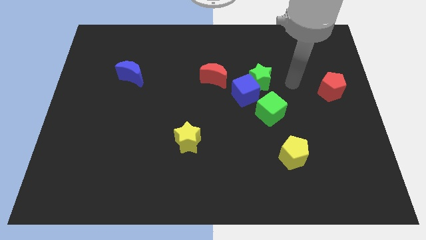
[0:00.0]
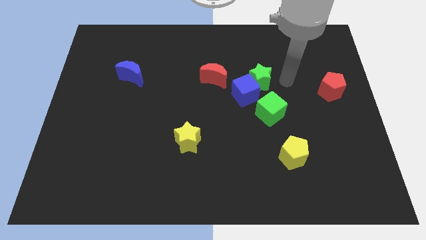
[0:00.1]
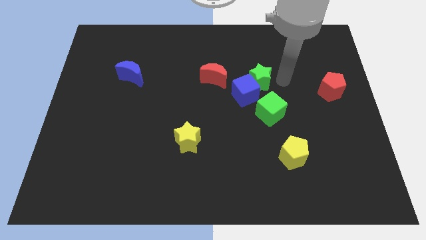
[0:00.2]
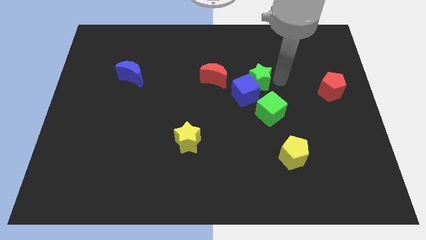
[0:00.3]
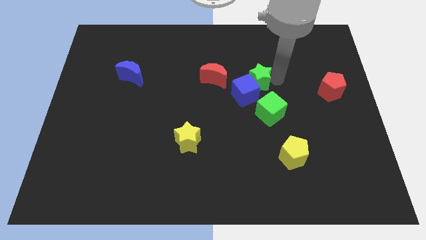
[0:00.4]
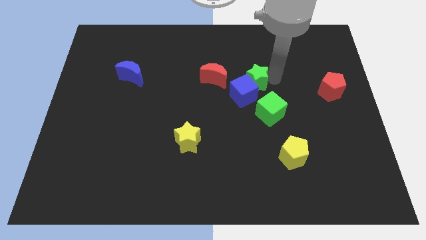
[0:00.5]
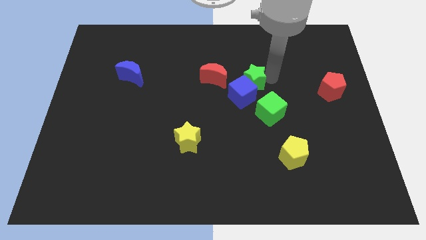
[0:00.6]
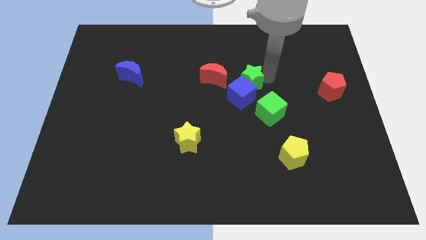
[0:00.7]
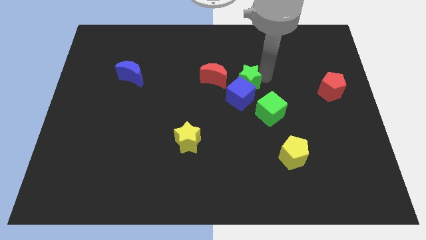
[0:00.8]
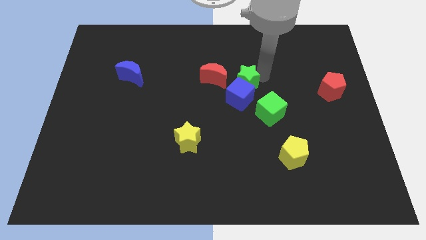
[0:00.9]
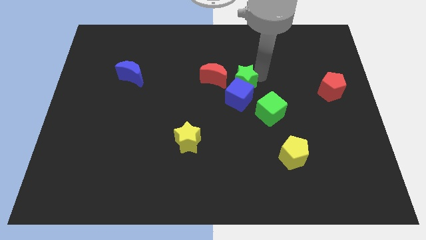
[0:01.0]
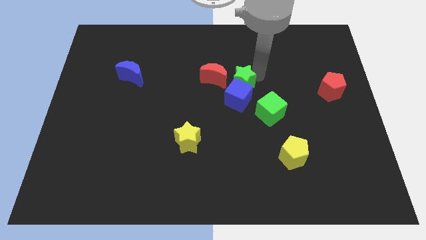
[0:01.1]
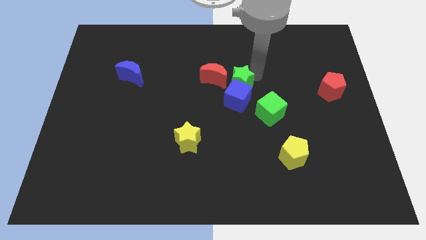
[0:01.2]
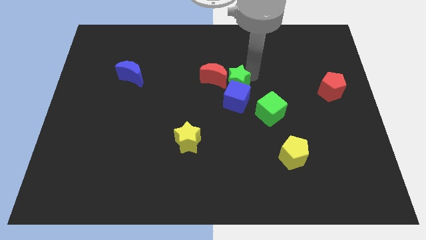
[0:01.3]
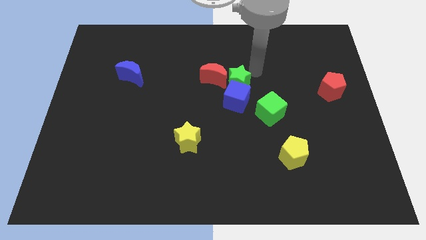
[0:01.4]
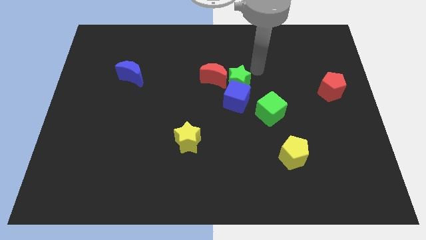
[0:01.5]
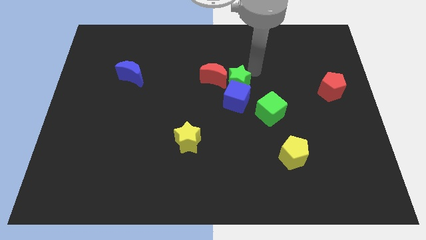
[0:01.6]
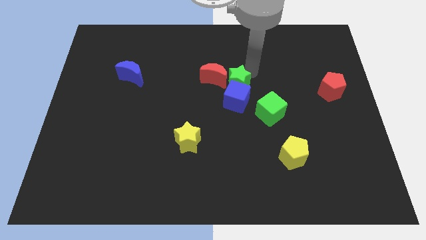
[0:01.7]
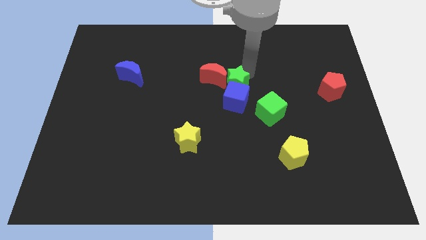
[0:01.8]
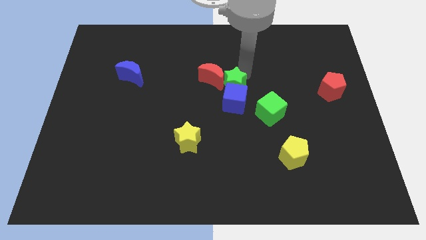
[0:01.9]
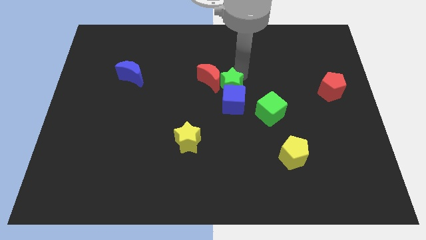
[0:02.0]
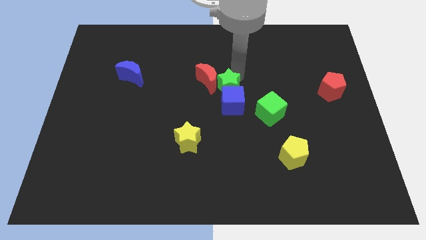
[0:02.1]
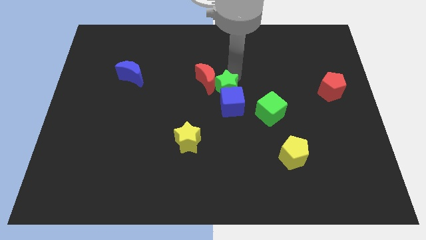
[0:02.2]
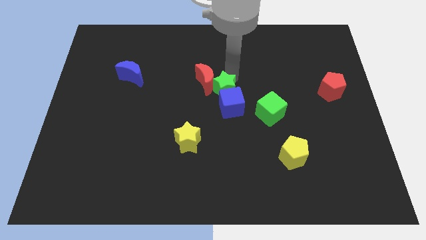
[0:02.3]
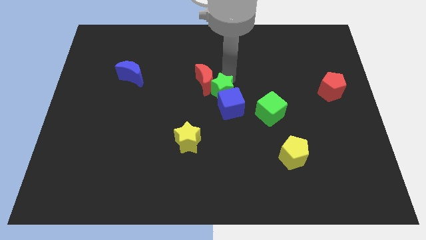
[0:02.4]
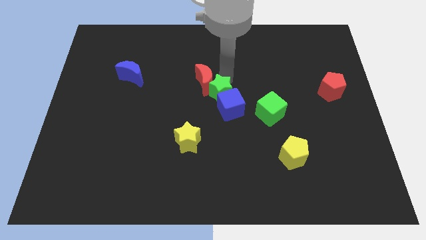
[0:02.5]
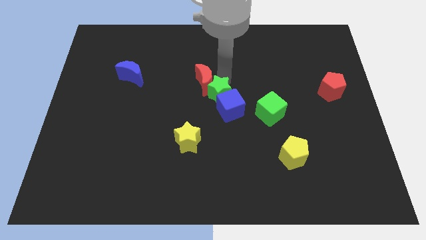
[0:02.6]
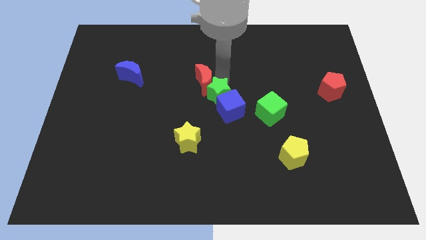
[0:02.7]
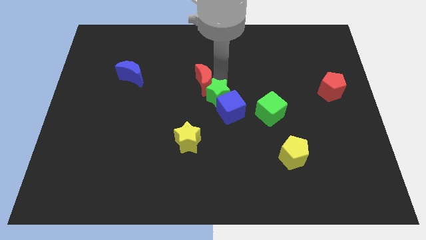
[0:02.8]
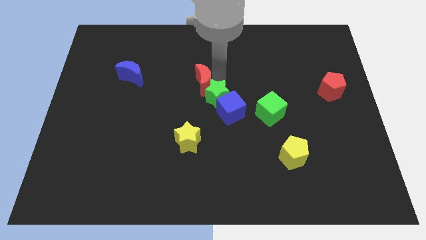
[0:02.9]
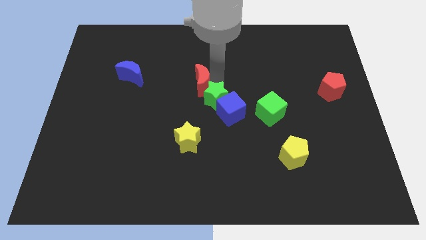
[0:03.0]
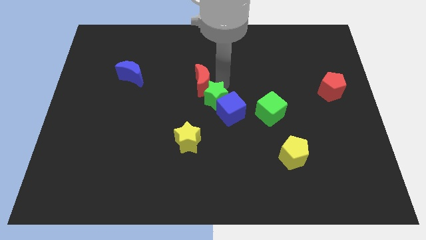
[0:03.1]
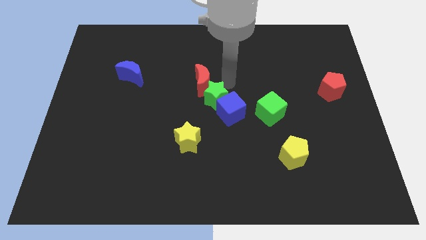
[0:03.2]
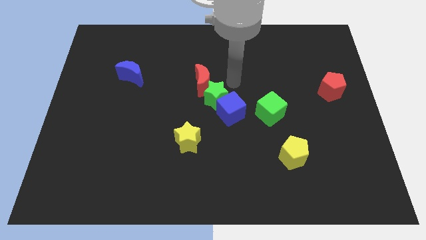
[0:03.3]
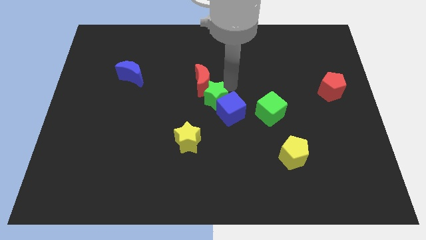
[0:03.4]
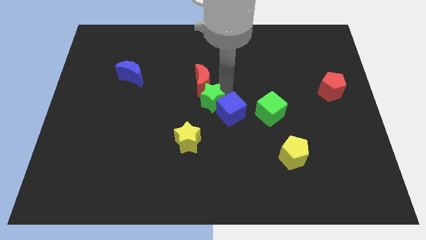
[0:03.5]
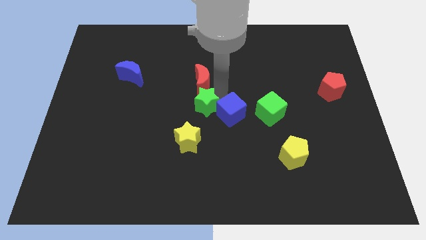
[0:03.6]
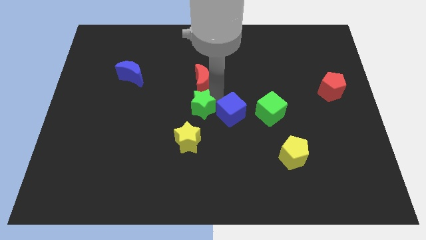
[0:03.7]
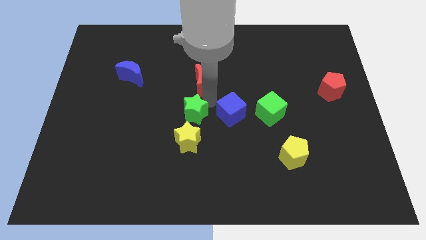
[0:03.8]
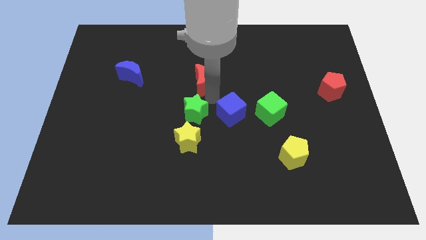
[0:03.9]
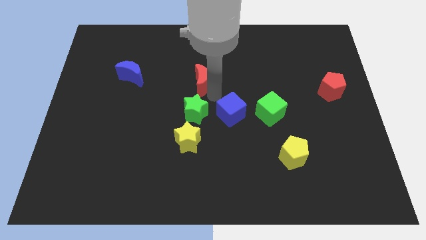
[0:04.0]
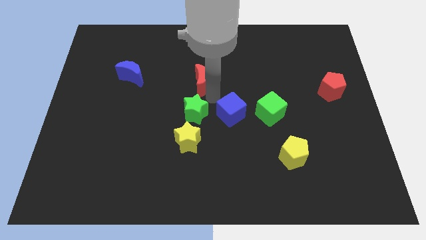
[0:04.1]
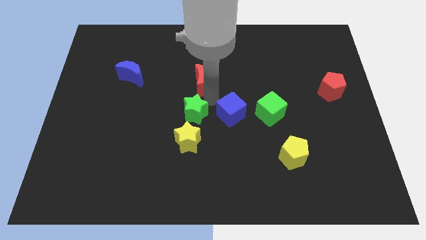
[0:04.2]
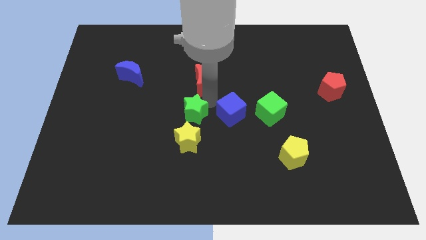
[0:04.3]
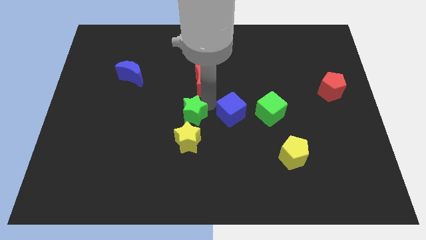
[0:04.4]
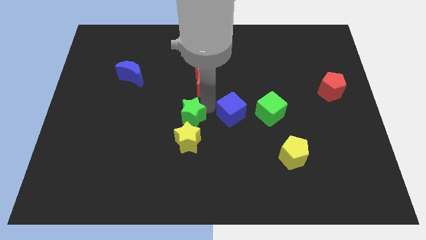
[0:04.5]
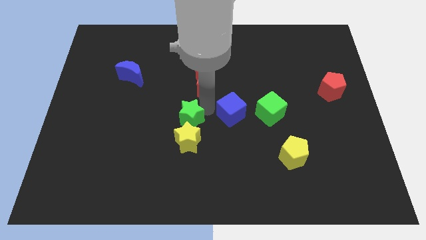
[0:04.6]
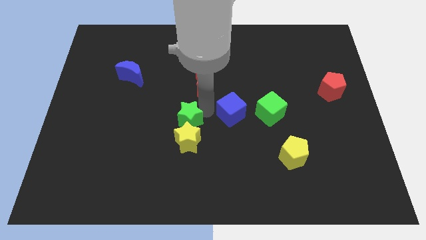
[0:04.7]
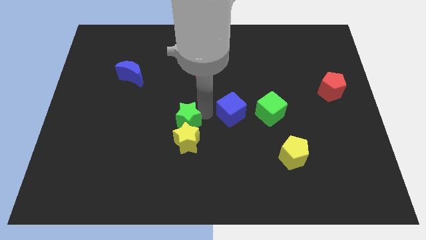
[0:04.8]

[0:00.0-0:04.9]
slide the green star diagonally down and to the left

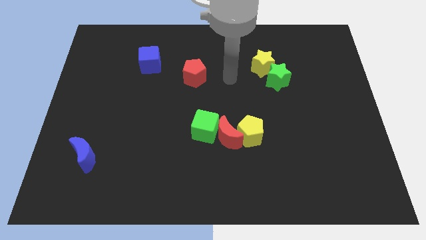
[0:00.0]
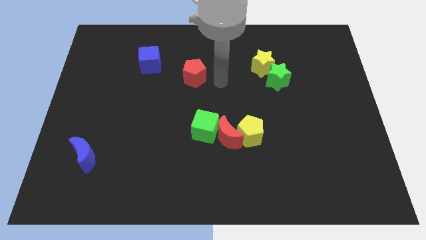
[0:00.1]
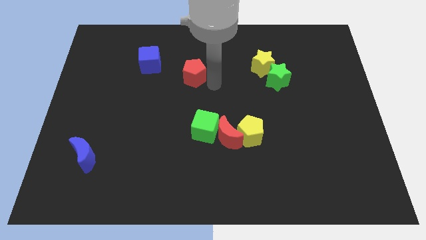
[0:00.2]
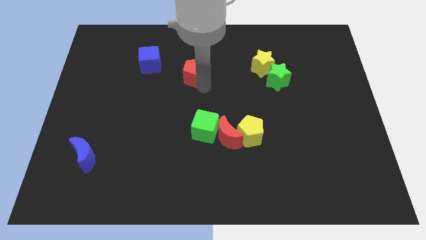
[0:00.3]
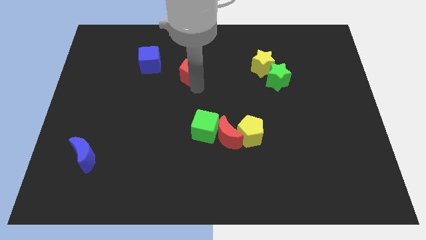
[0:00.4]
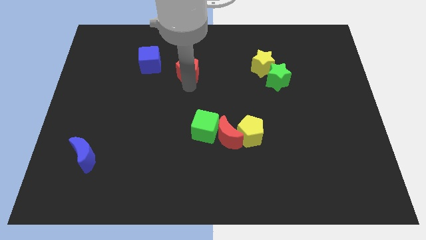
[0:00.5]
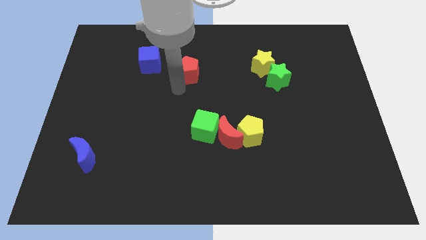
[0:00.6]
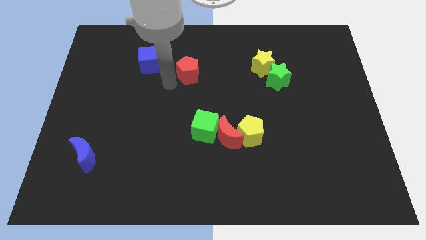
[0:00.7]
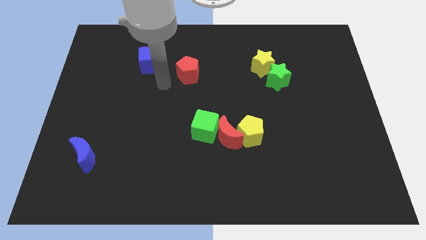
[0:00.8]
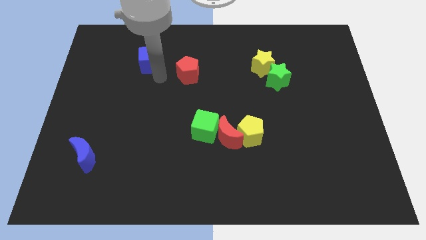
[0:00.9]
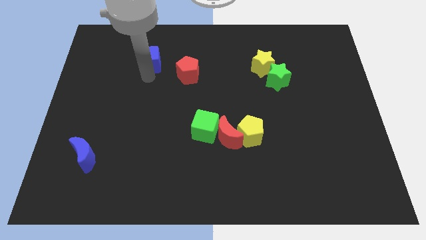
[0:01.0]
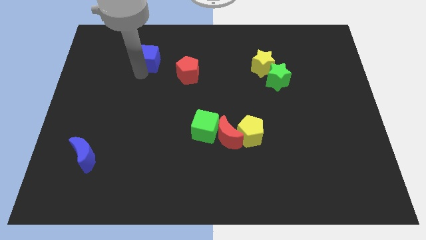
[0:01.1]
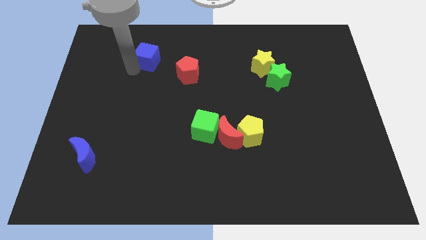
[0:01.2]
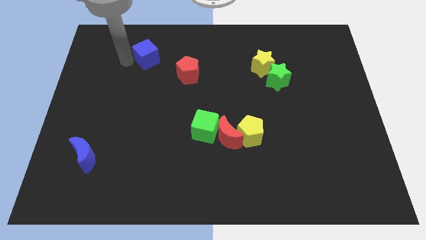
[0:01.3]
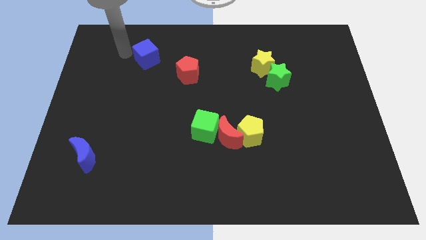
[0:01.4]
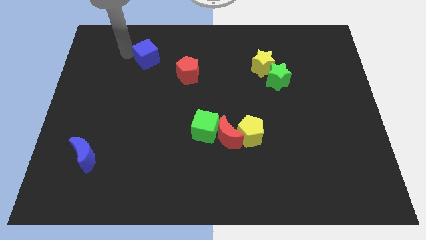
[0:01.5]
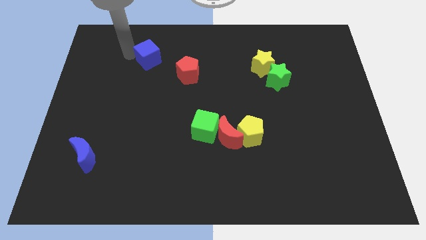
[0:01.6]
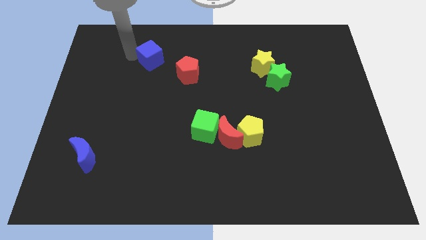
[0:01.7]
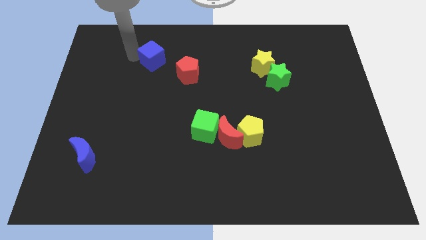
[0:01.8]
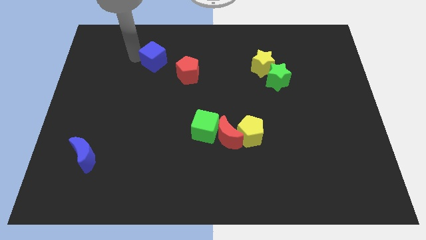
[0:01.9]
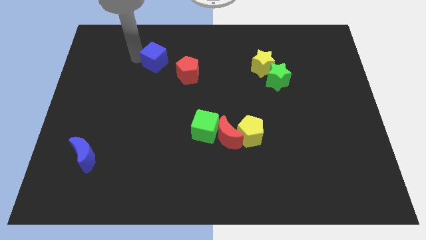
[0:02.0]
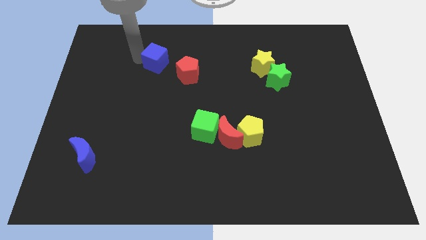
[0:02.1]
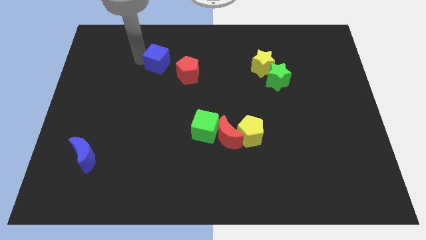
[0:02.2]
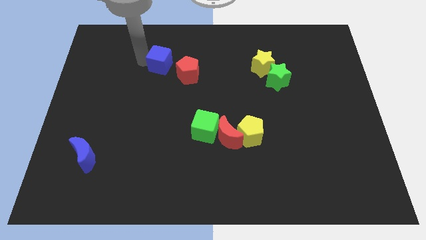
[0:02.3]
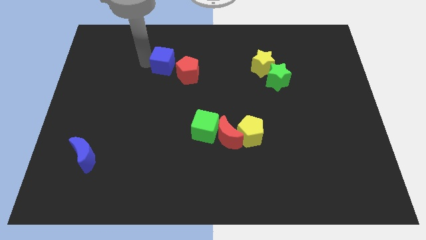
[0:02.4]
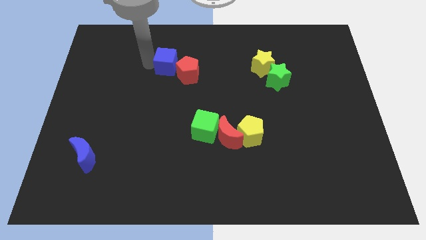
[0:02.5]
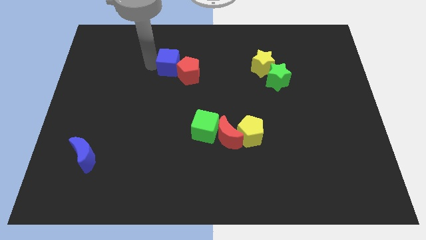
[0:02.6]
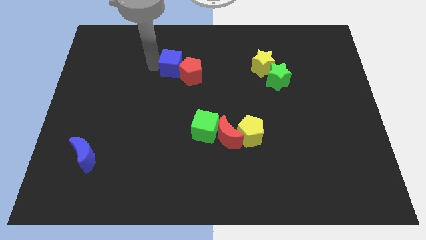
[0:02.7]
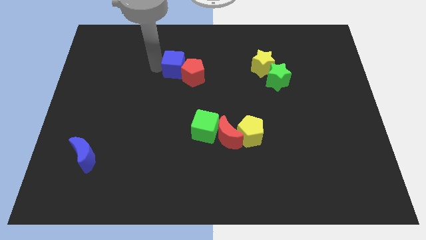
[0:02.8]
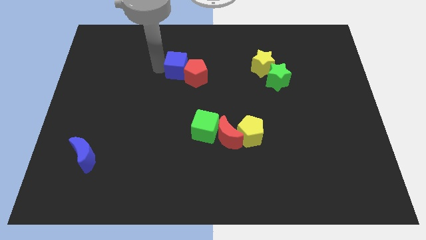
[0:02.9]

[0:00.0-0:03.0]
move the blue cube slightly right

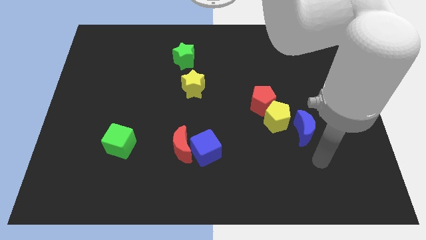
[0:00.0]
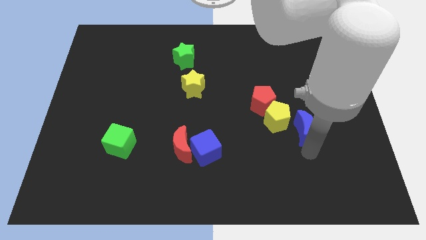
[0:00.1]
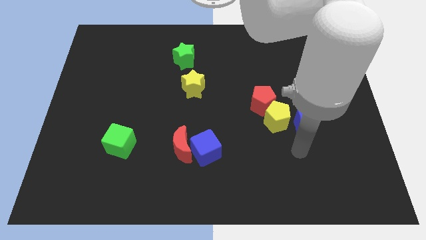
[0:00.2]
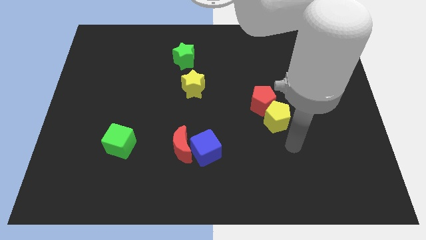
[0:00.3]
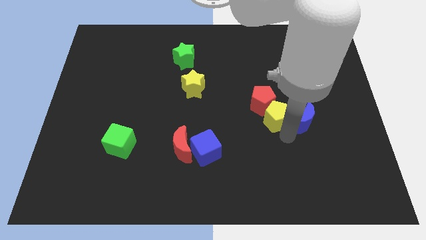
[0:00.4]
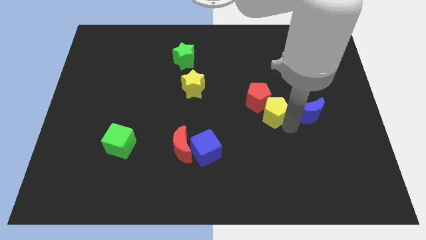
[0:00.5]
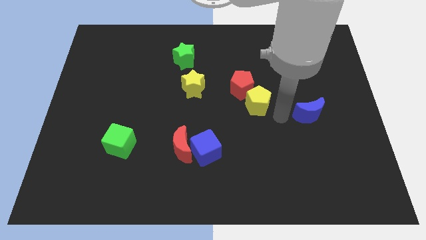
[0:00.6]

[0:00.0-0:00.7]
slightly slide the red pentagon up and left diagonally
